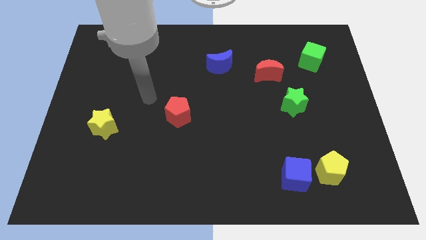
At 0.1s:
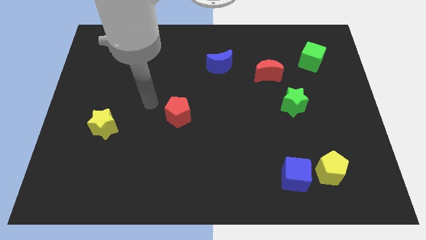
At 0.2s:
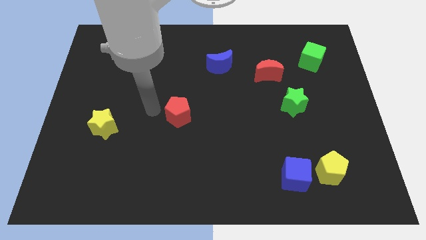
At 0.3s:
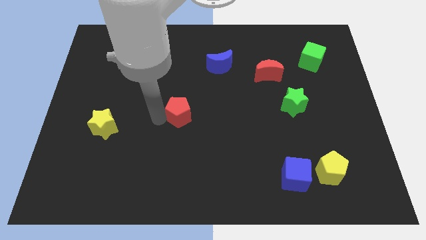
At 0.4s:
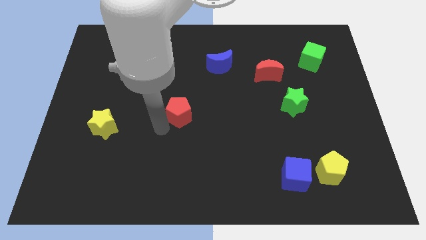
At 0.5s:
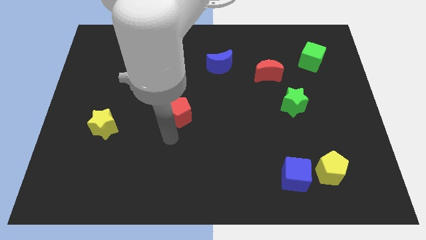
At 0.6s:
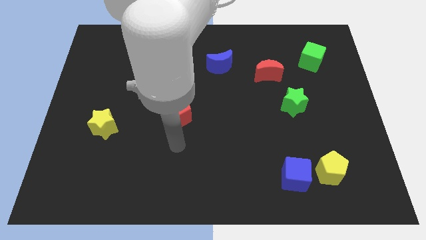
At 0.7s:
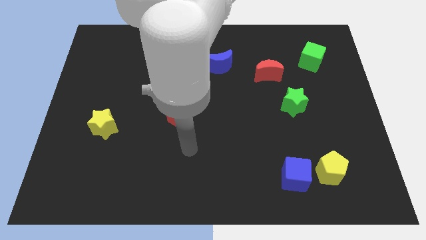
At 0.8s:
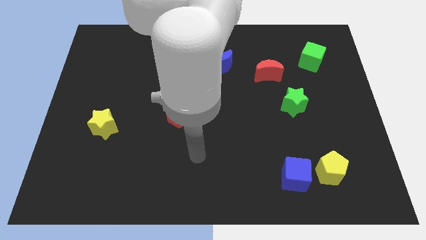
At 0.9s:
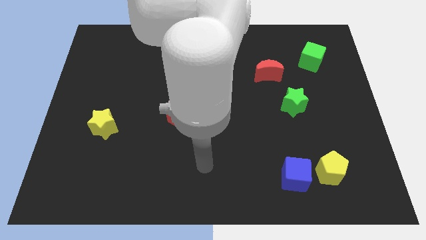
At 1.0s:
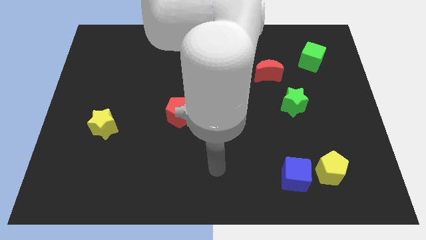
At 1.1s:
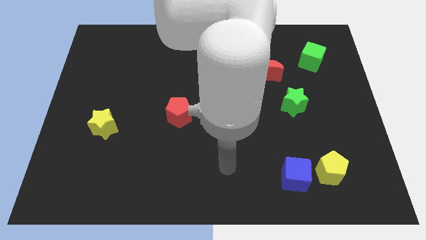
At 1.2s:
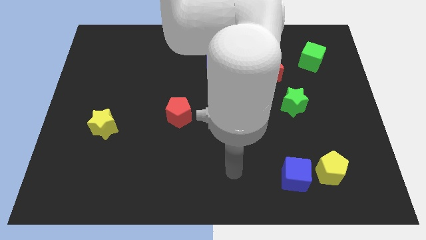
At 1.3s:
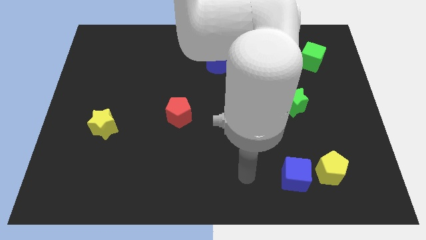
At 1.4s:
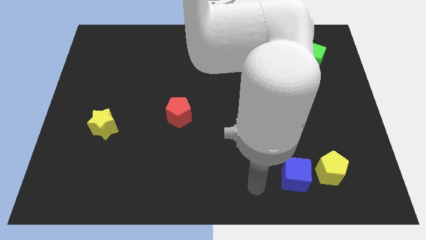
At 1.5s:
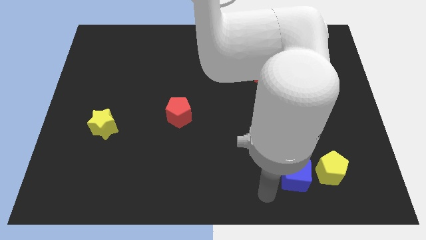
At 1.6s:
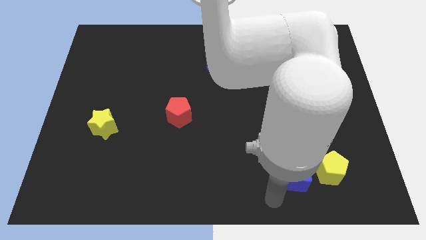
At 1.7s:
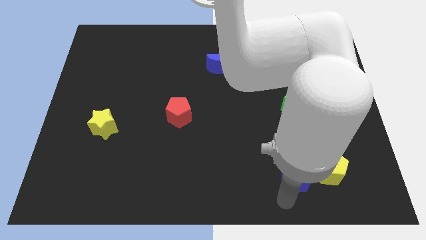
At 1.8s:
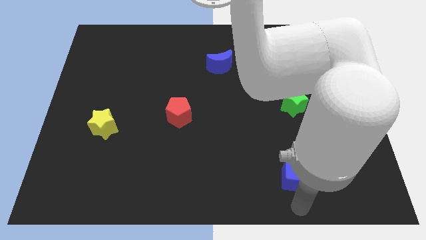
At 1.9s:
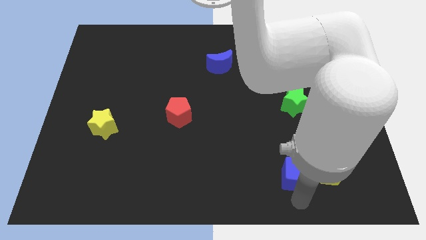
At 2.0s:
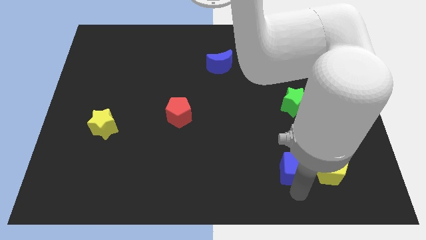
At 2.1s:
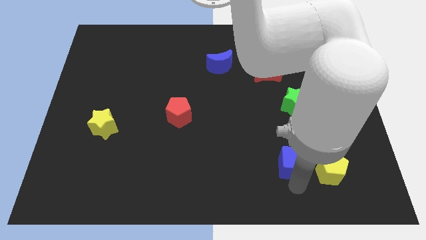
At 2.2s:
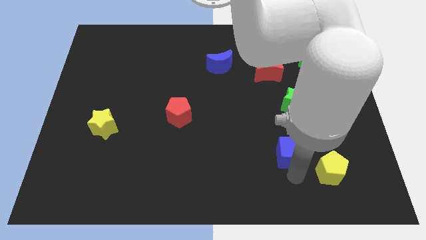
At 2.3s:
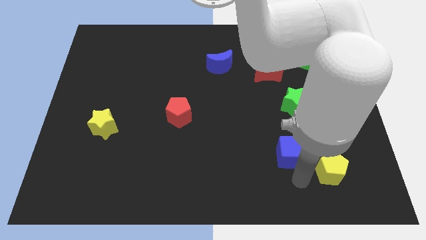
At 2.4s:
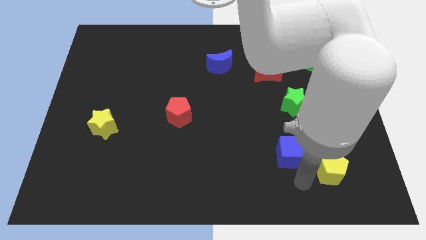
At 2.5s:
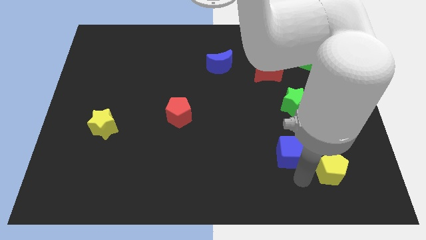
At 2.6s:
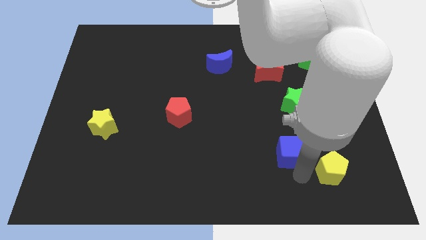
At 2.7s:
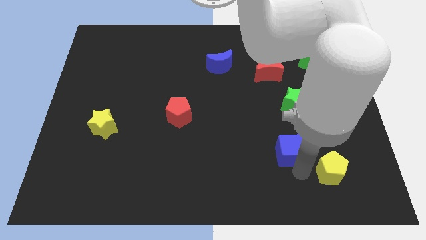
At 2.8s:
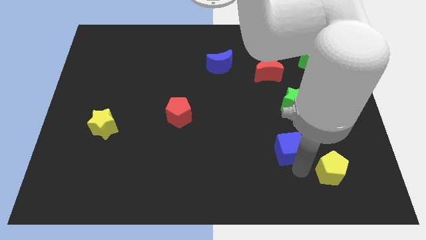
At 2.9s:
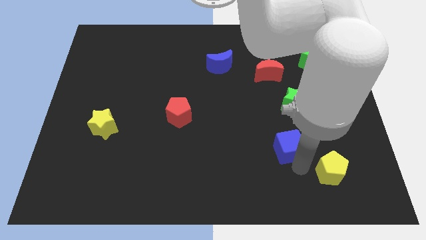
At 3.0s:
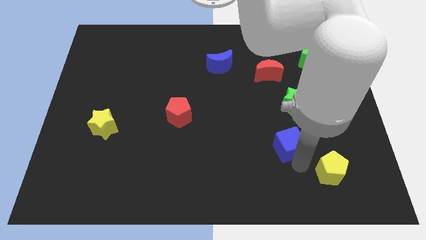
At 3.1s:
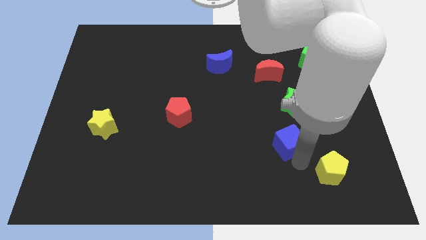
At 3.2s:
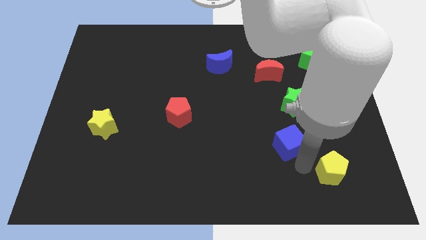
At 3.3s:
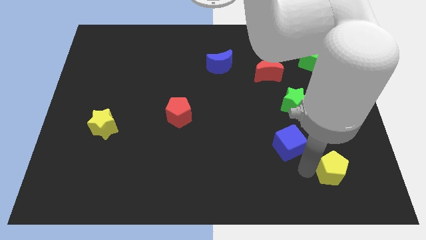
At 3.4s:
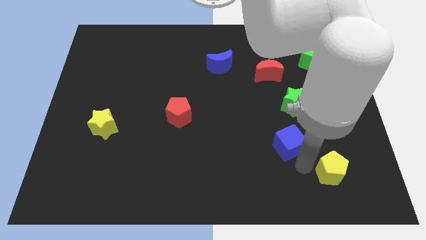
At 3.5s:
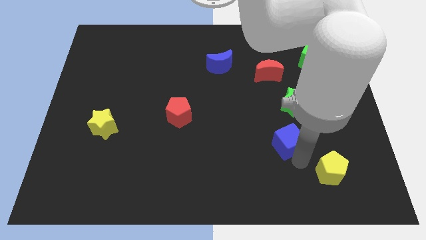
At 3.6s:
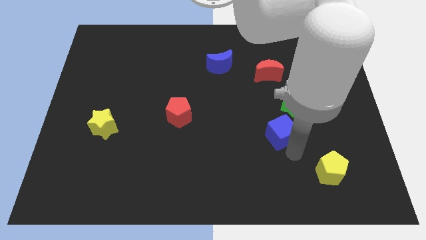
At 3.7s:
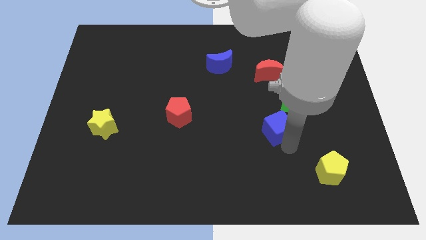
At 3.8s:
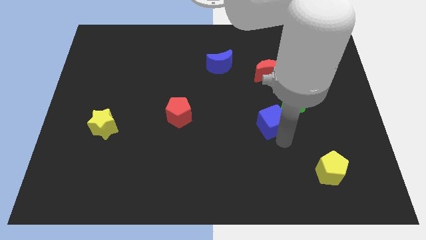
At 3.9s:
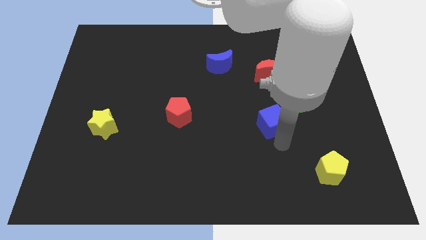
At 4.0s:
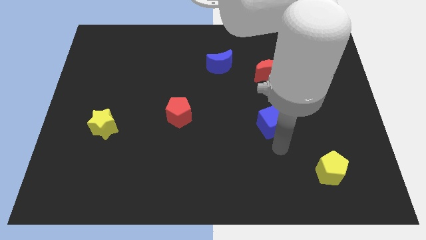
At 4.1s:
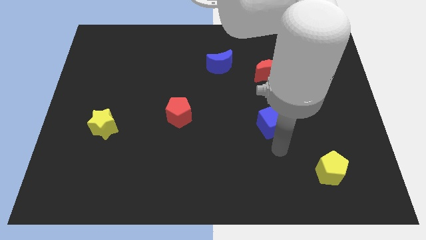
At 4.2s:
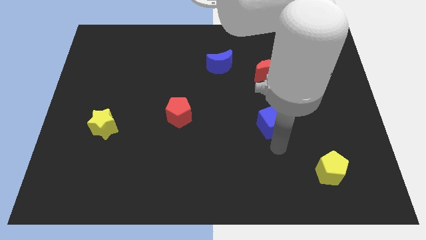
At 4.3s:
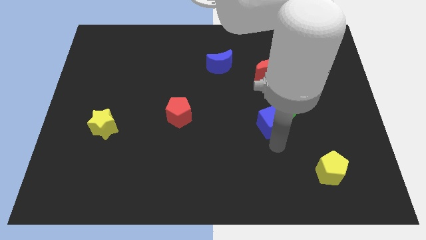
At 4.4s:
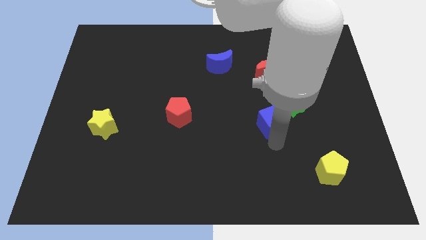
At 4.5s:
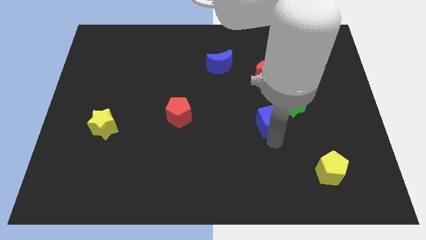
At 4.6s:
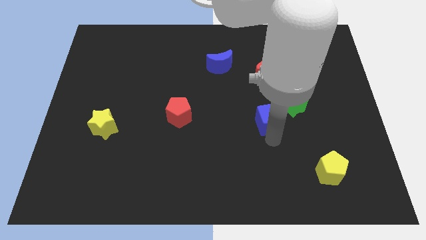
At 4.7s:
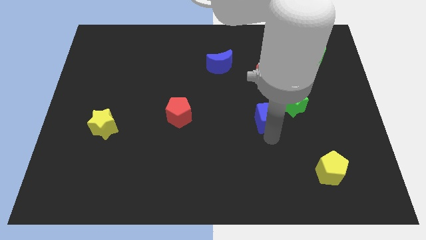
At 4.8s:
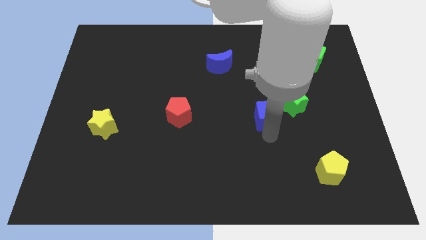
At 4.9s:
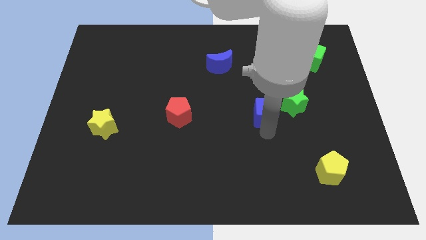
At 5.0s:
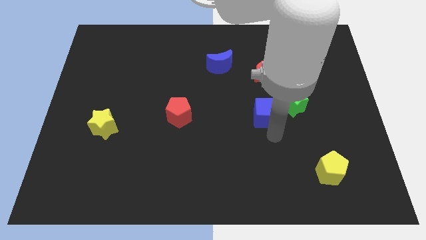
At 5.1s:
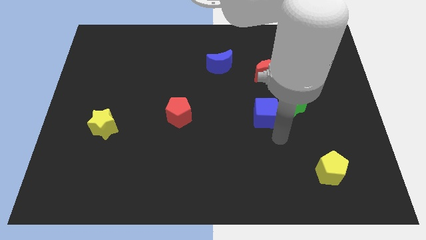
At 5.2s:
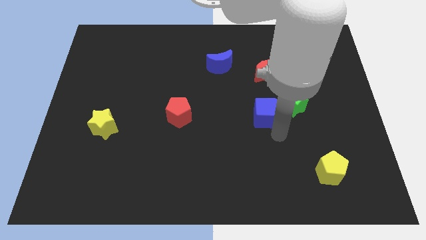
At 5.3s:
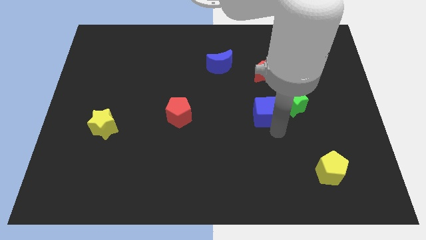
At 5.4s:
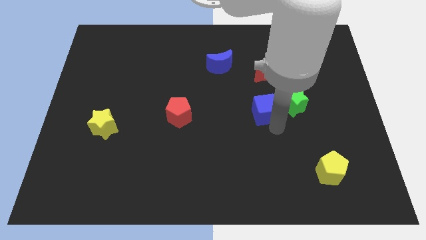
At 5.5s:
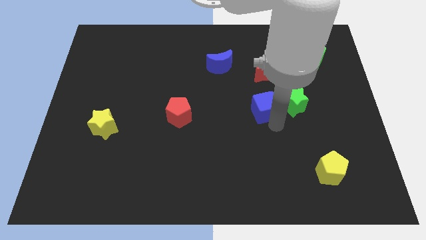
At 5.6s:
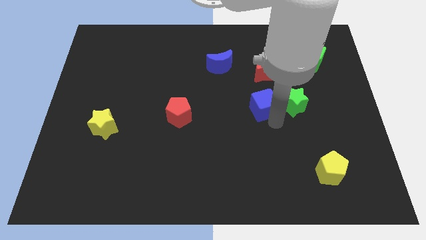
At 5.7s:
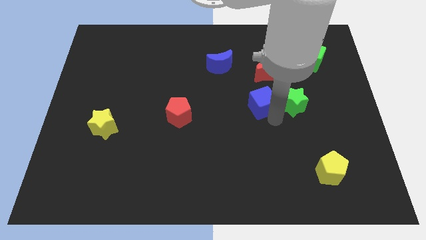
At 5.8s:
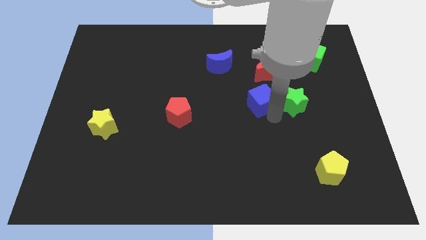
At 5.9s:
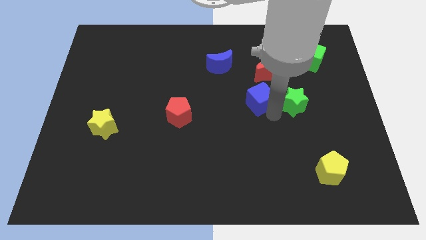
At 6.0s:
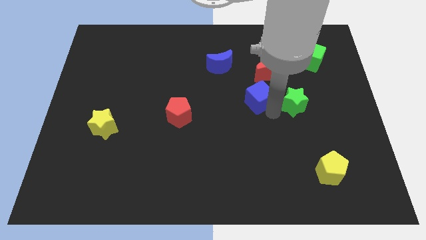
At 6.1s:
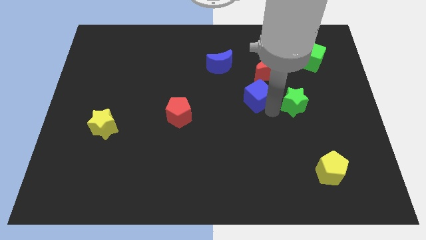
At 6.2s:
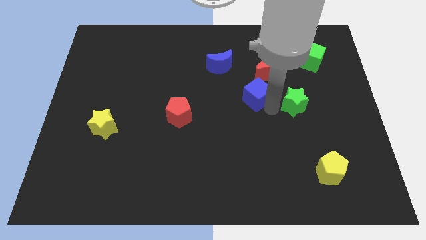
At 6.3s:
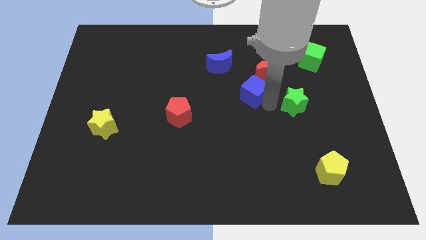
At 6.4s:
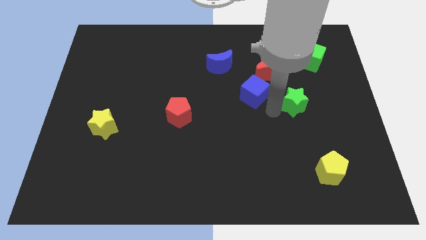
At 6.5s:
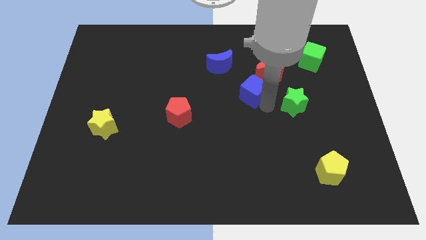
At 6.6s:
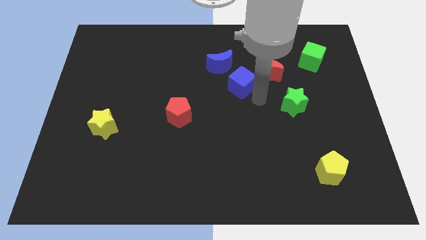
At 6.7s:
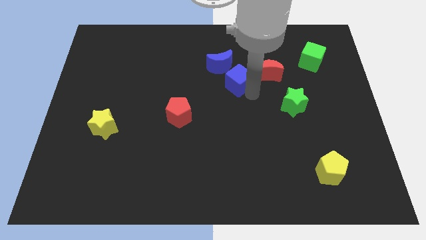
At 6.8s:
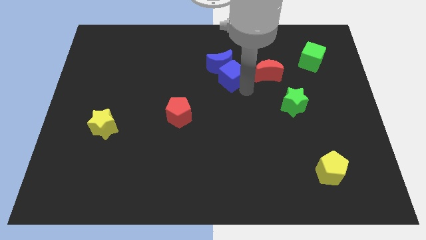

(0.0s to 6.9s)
push the blue cube close to the blue moon

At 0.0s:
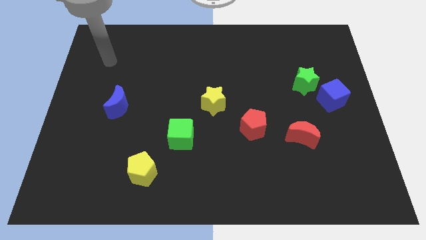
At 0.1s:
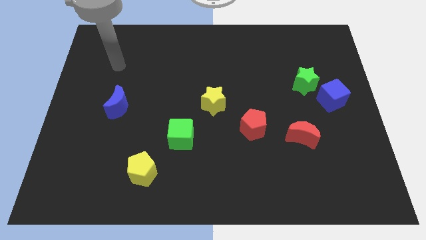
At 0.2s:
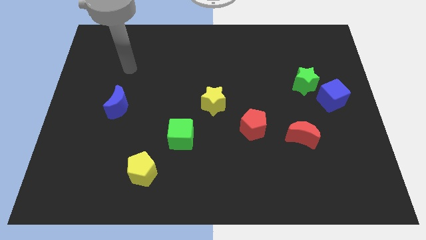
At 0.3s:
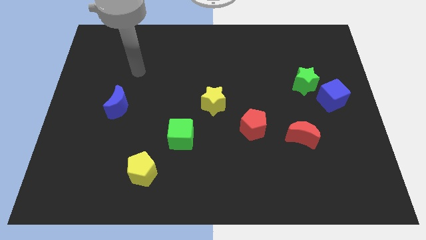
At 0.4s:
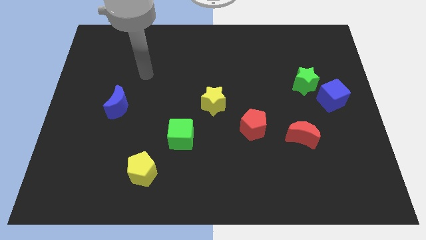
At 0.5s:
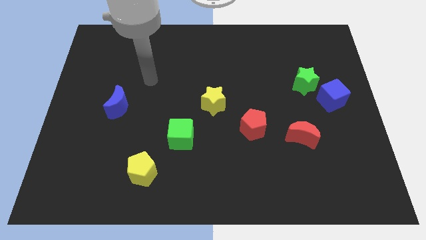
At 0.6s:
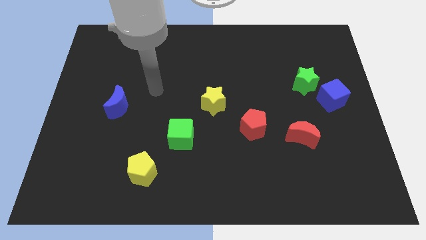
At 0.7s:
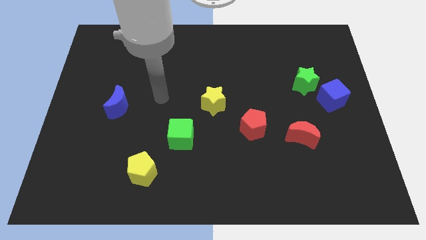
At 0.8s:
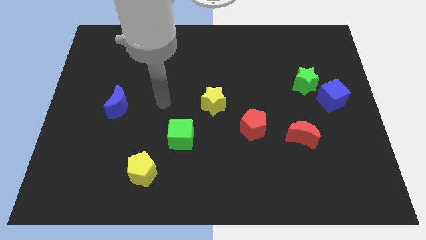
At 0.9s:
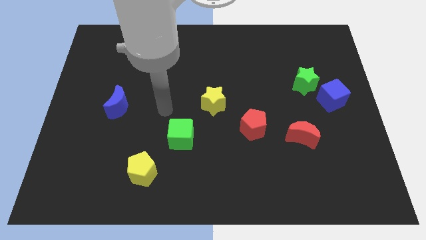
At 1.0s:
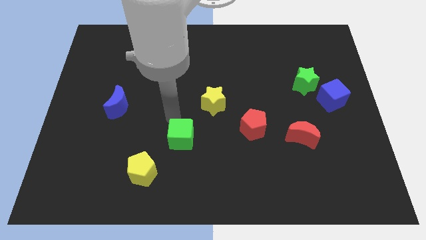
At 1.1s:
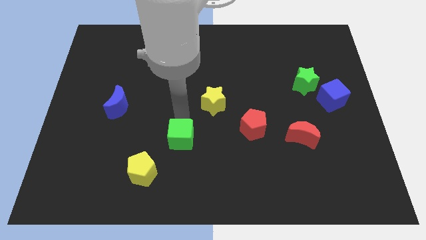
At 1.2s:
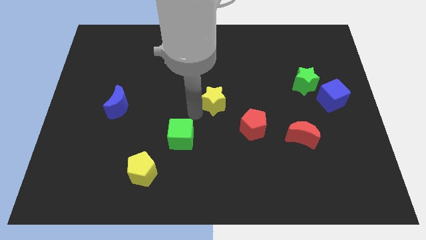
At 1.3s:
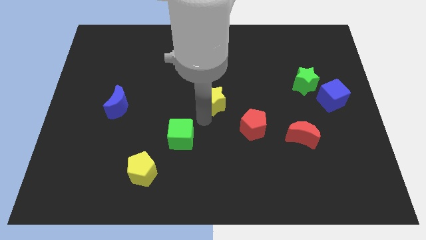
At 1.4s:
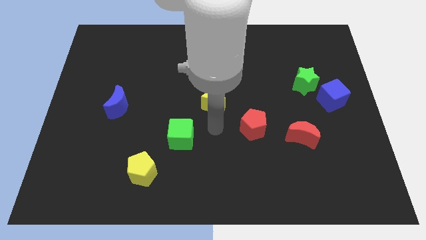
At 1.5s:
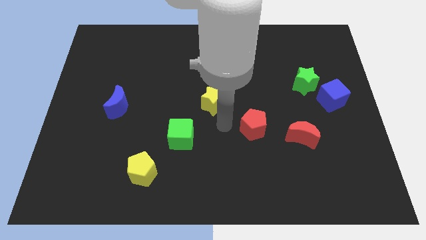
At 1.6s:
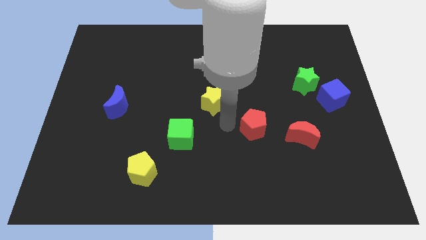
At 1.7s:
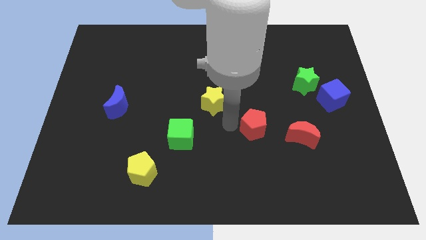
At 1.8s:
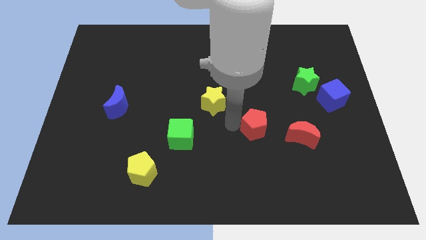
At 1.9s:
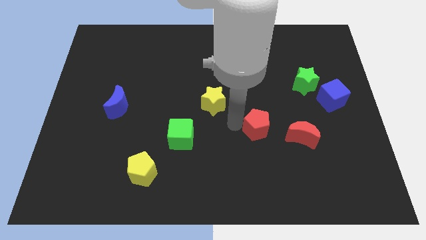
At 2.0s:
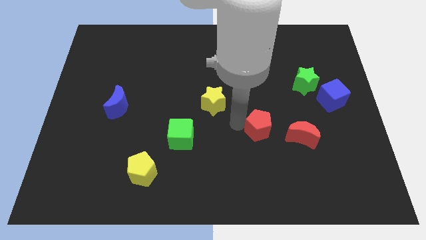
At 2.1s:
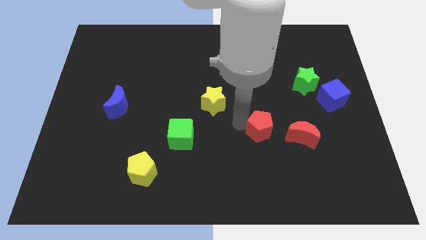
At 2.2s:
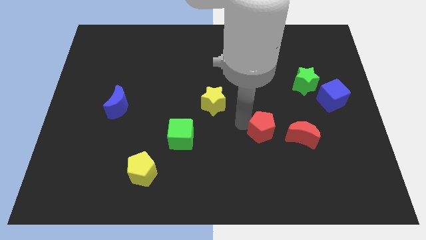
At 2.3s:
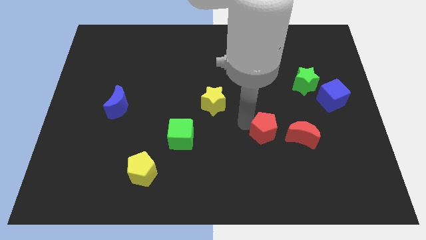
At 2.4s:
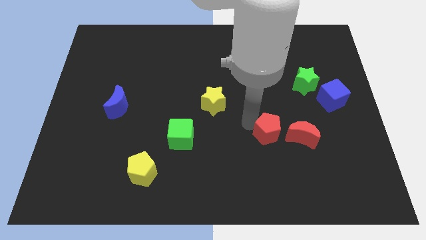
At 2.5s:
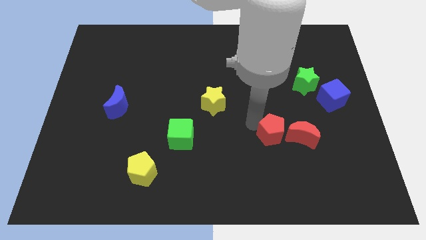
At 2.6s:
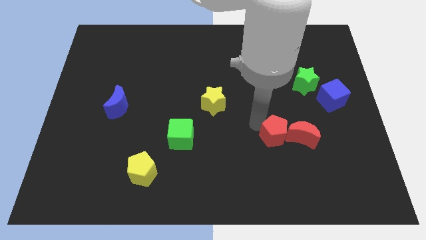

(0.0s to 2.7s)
put the red pentagon next to the red moon
